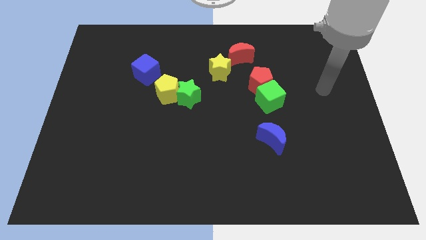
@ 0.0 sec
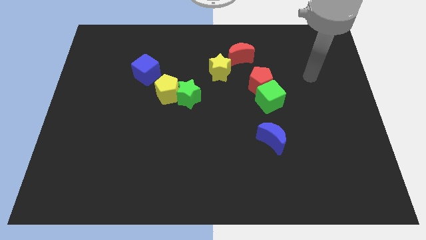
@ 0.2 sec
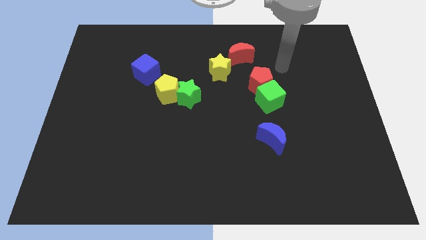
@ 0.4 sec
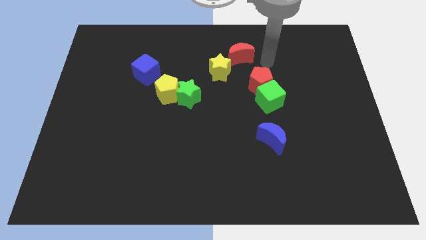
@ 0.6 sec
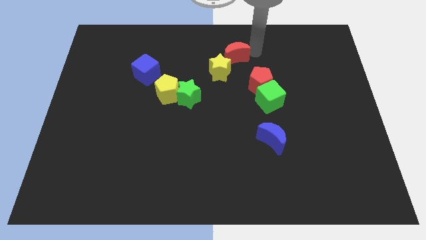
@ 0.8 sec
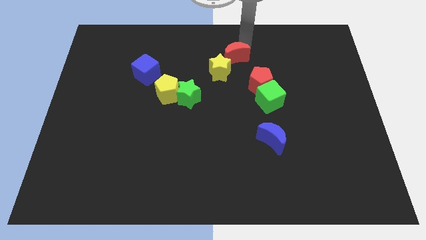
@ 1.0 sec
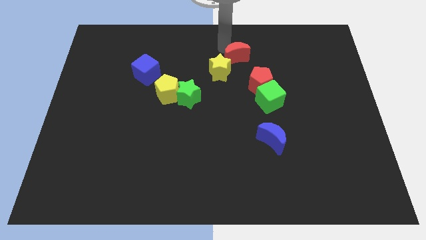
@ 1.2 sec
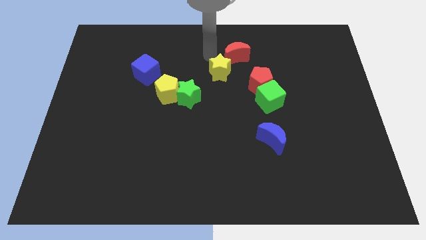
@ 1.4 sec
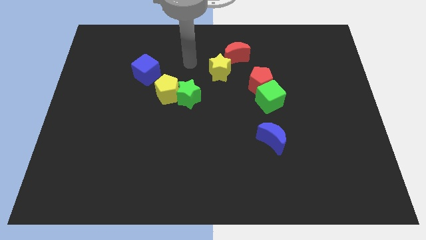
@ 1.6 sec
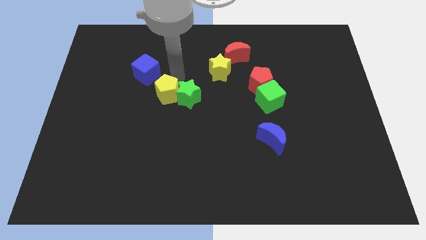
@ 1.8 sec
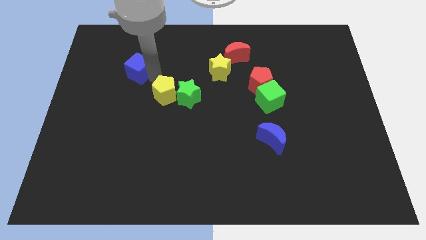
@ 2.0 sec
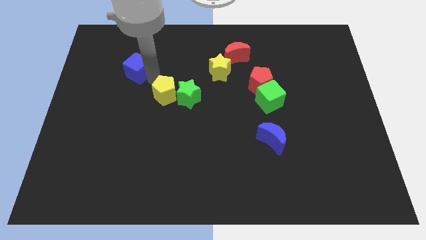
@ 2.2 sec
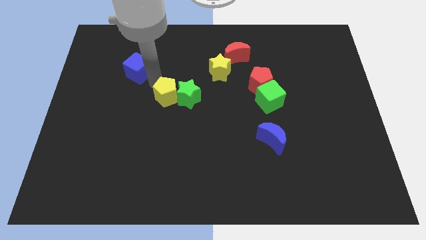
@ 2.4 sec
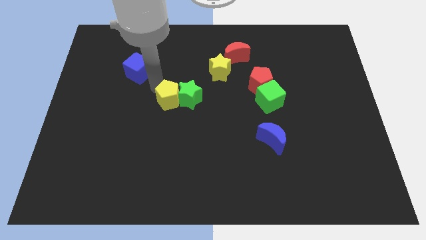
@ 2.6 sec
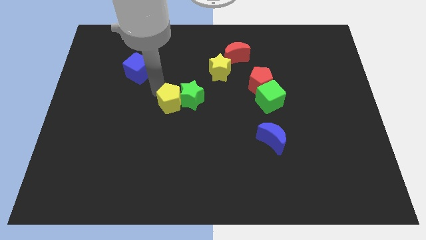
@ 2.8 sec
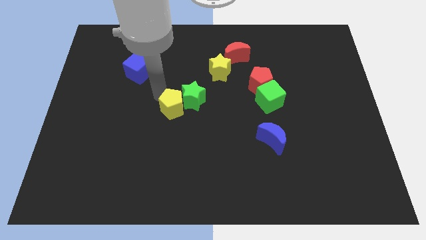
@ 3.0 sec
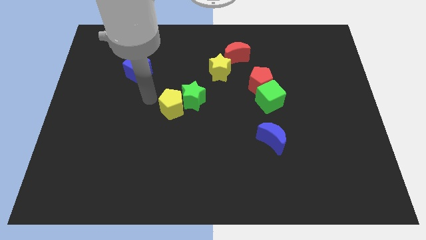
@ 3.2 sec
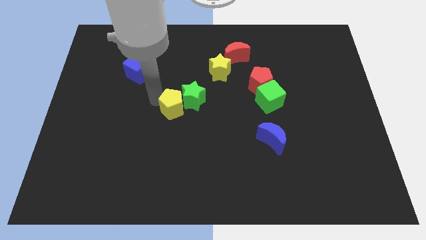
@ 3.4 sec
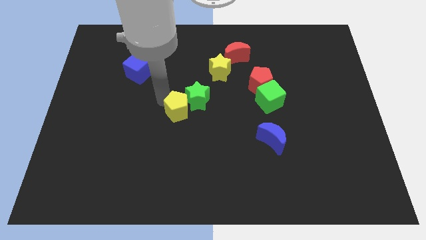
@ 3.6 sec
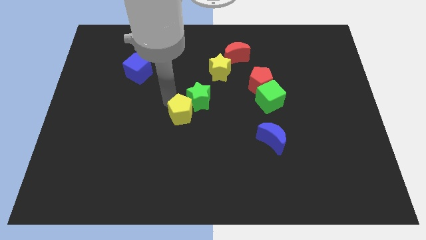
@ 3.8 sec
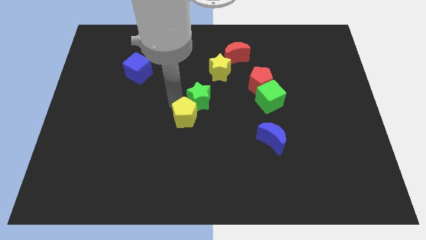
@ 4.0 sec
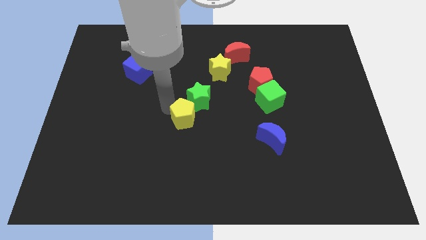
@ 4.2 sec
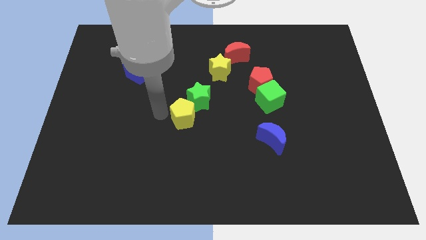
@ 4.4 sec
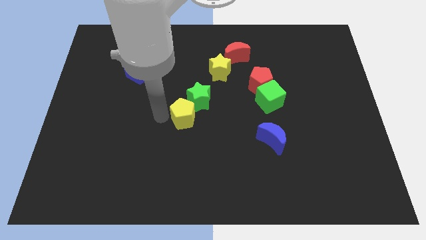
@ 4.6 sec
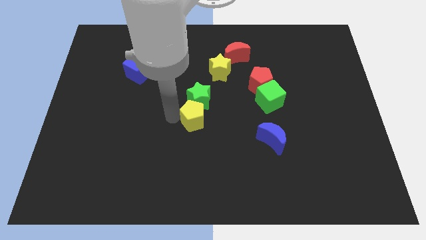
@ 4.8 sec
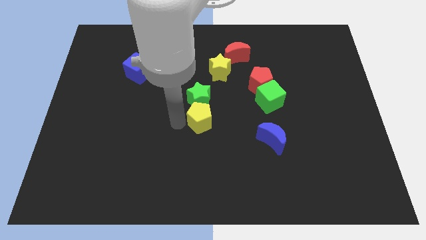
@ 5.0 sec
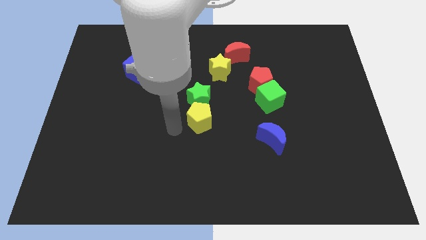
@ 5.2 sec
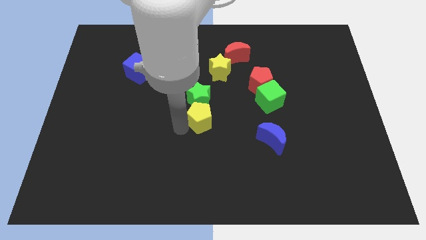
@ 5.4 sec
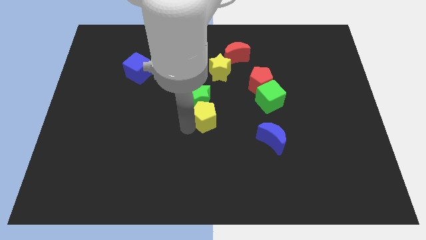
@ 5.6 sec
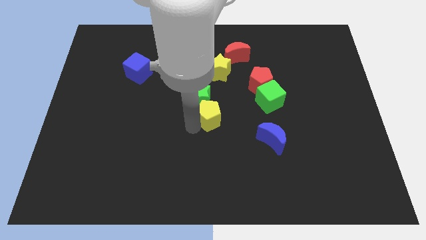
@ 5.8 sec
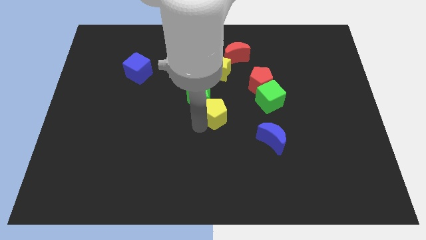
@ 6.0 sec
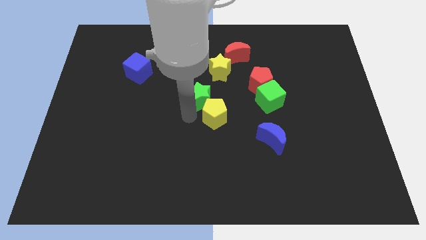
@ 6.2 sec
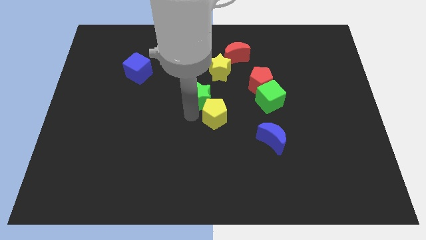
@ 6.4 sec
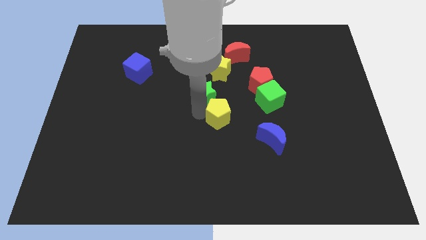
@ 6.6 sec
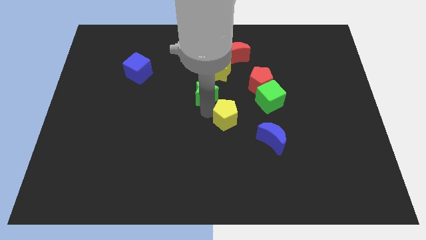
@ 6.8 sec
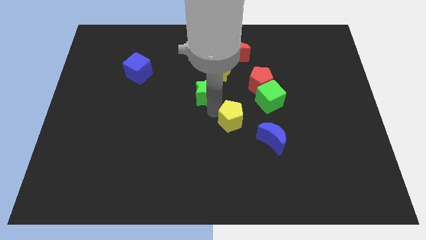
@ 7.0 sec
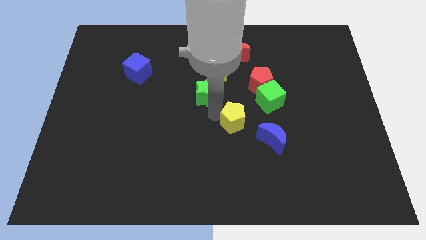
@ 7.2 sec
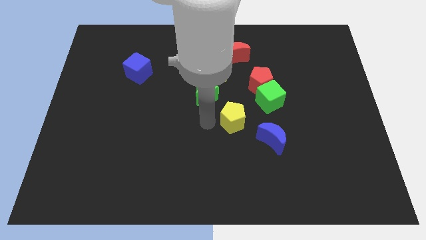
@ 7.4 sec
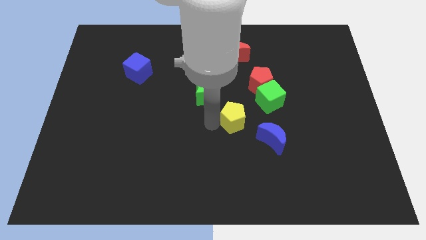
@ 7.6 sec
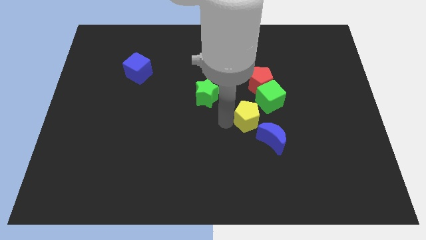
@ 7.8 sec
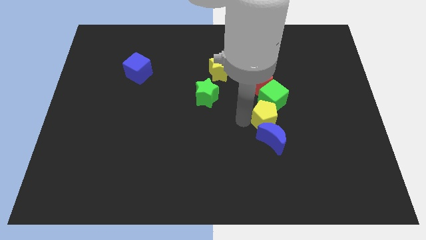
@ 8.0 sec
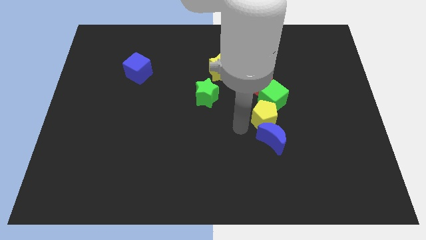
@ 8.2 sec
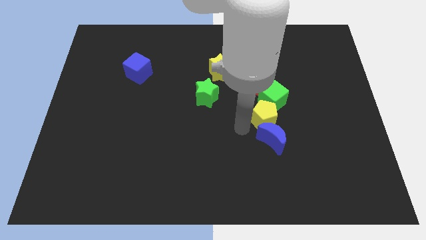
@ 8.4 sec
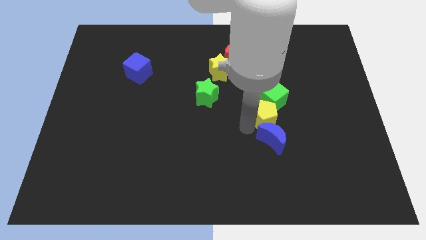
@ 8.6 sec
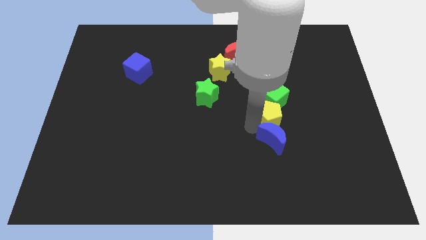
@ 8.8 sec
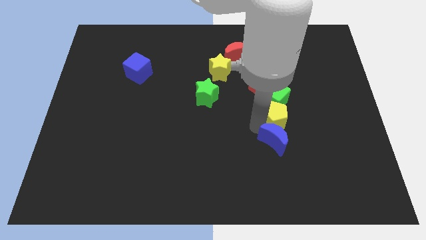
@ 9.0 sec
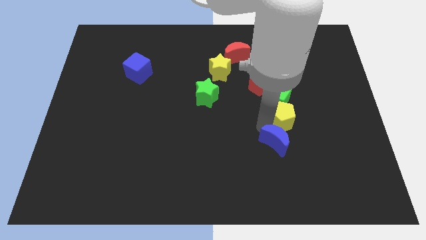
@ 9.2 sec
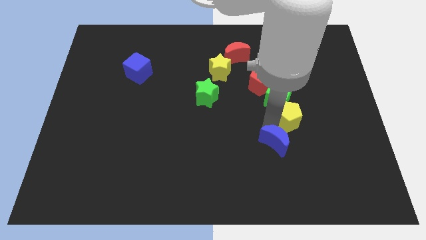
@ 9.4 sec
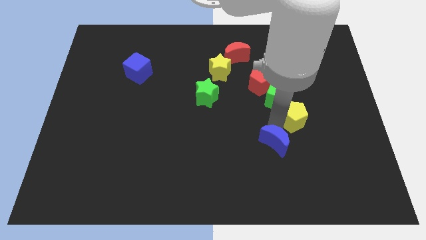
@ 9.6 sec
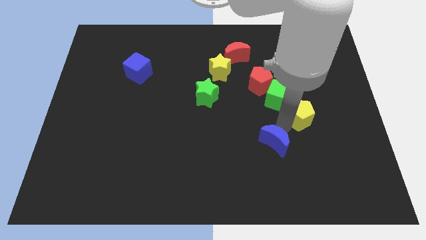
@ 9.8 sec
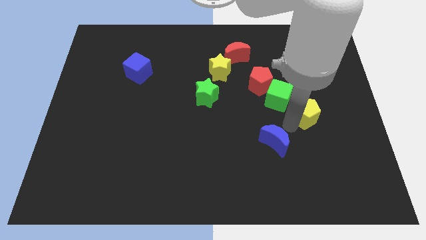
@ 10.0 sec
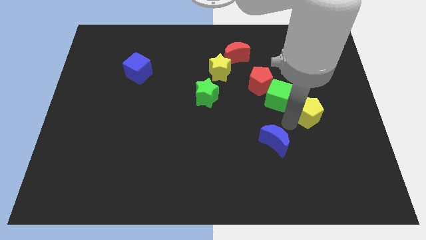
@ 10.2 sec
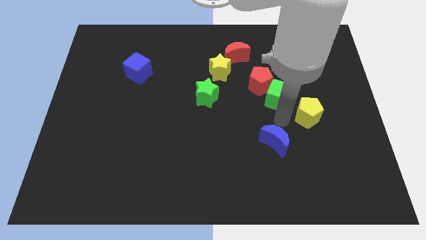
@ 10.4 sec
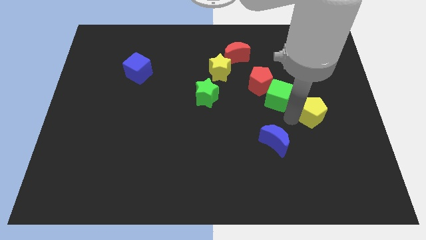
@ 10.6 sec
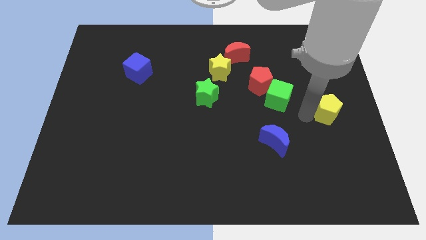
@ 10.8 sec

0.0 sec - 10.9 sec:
slide the yellow pentagon to the right side of the board

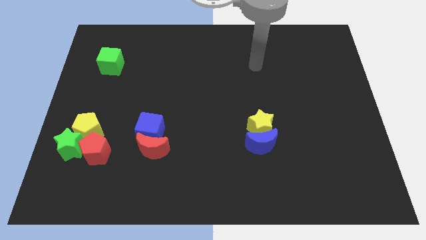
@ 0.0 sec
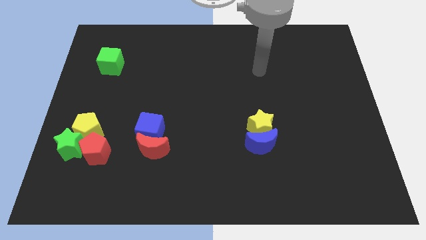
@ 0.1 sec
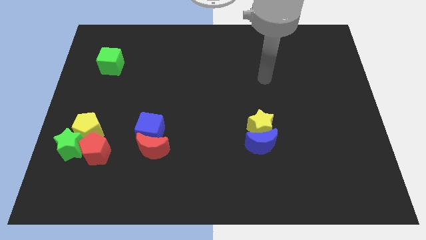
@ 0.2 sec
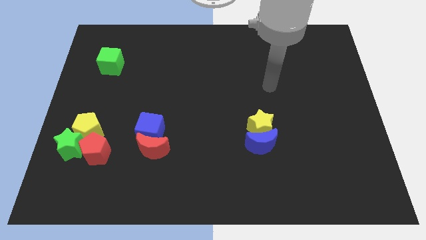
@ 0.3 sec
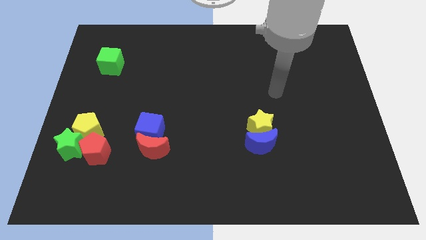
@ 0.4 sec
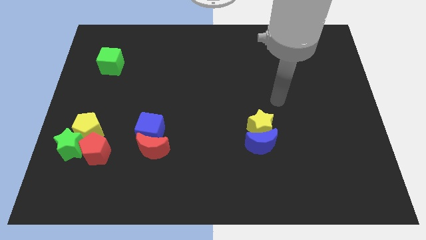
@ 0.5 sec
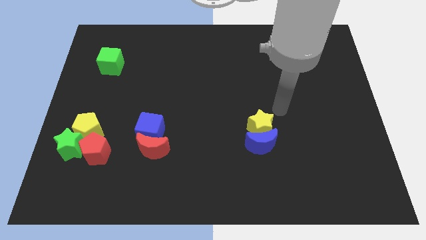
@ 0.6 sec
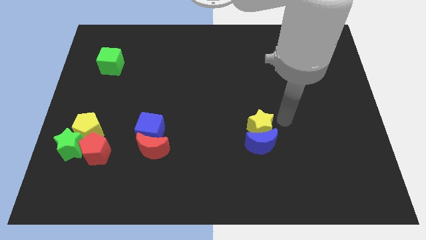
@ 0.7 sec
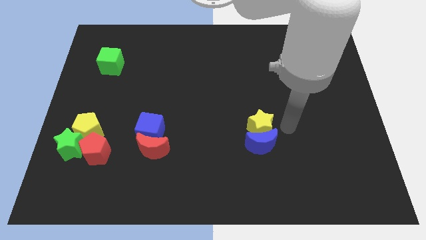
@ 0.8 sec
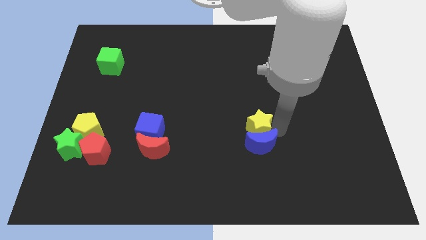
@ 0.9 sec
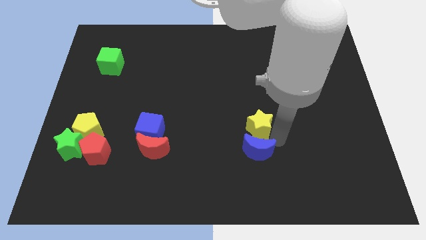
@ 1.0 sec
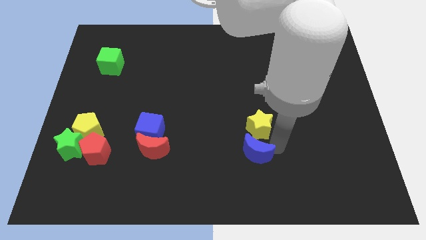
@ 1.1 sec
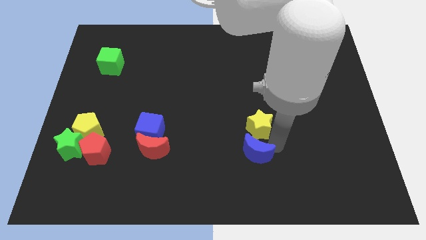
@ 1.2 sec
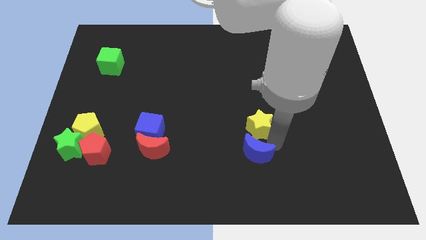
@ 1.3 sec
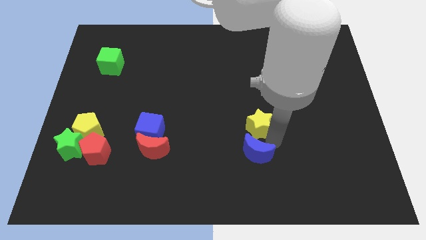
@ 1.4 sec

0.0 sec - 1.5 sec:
put the yellow star to the middle of the board

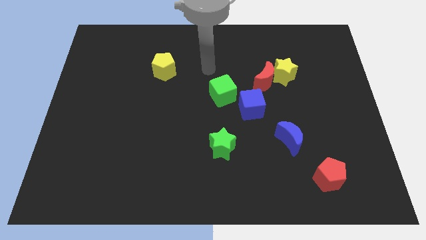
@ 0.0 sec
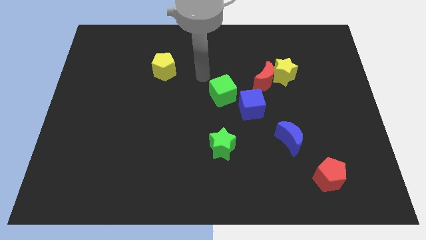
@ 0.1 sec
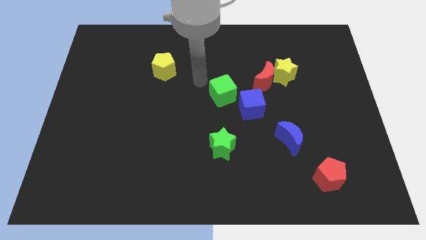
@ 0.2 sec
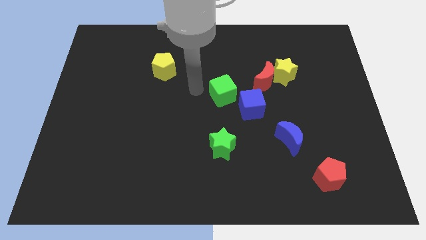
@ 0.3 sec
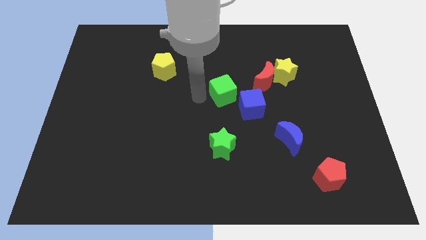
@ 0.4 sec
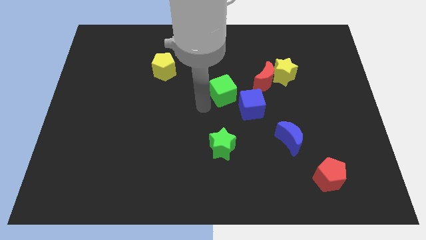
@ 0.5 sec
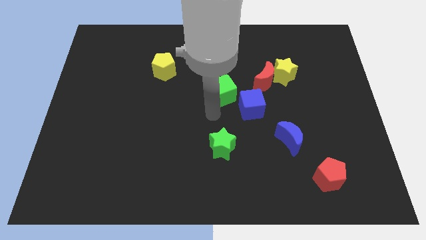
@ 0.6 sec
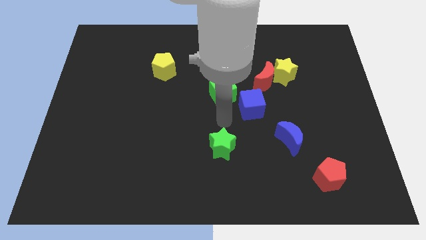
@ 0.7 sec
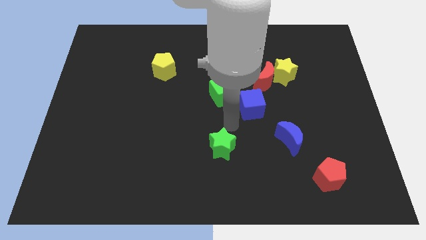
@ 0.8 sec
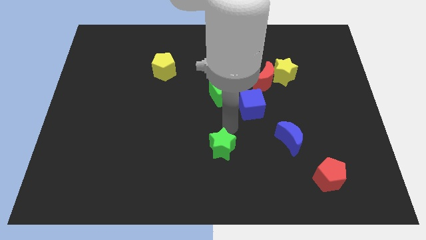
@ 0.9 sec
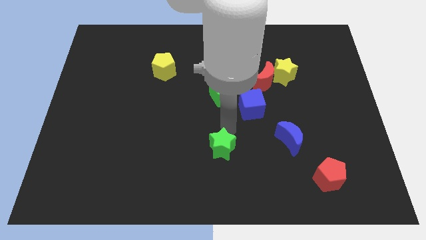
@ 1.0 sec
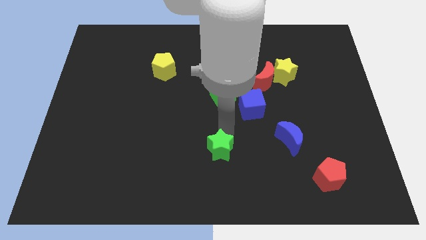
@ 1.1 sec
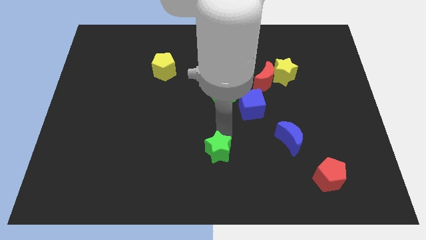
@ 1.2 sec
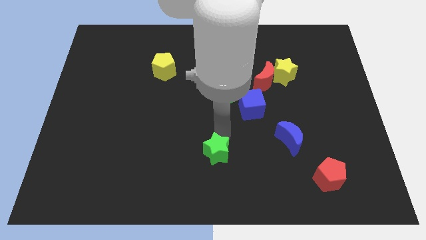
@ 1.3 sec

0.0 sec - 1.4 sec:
move the green star to the bottom
